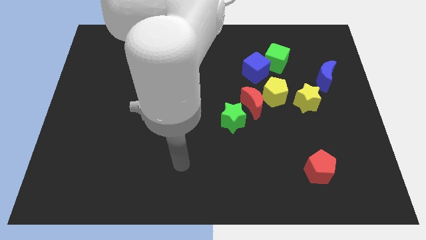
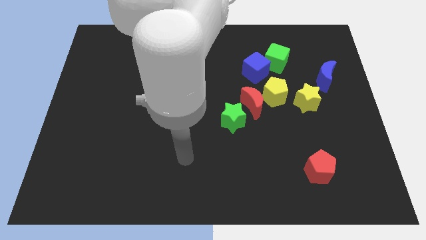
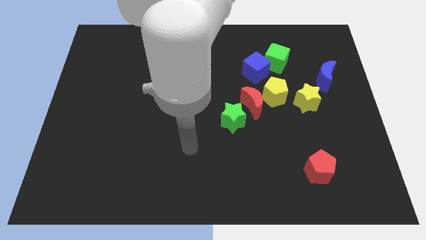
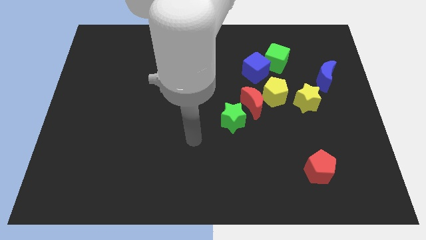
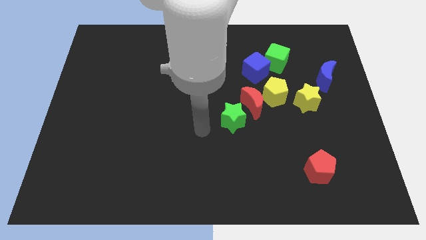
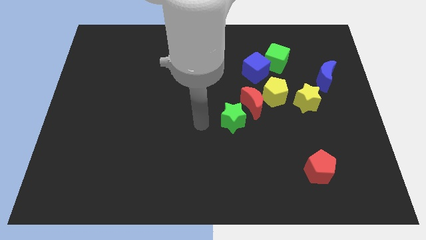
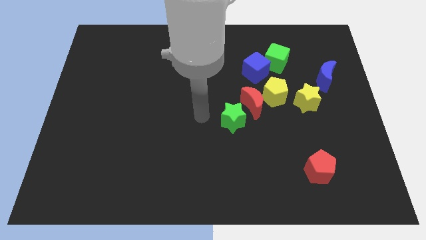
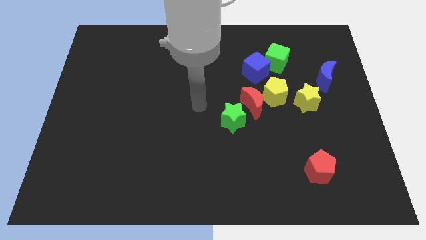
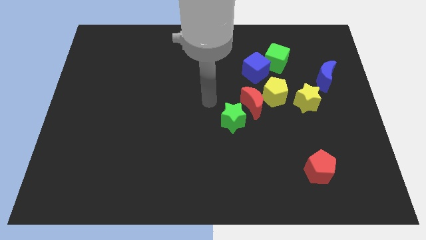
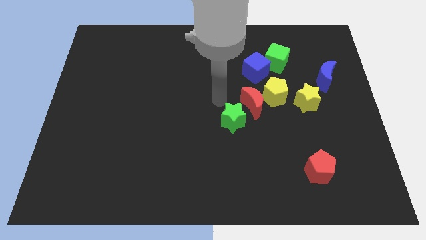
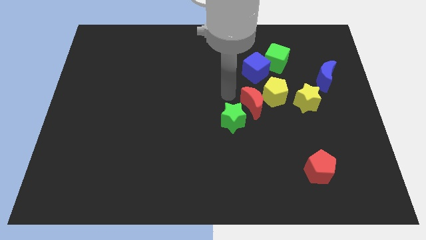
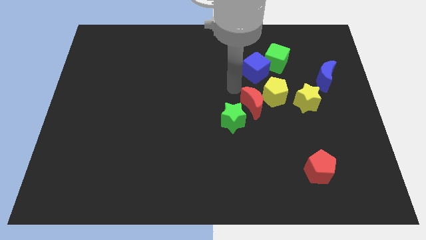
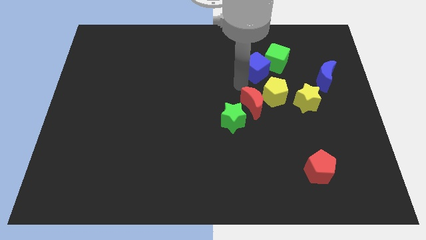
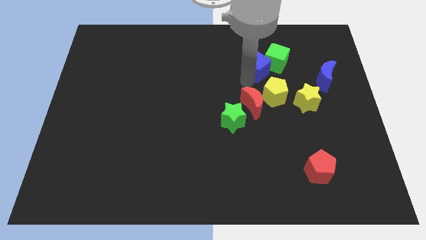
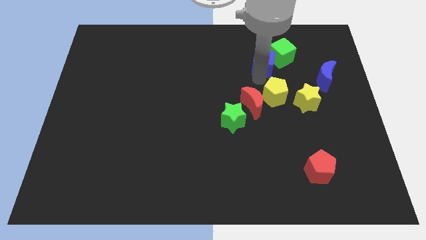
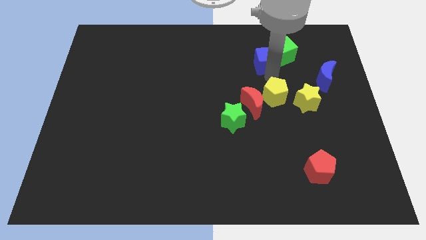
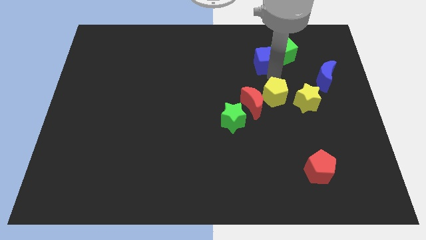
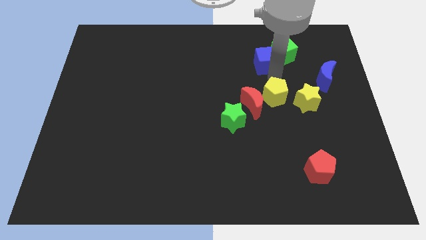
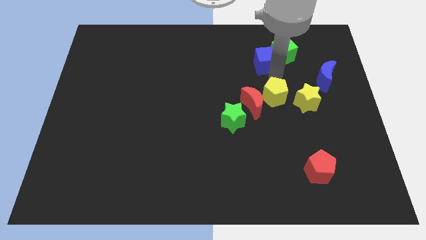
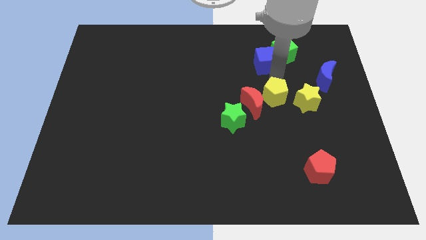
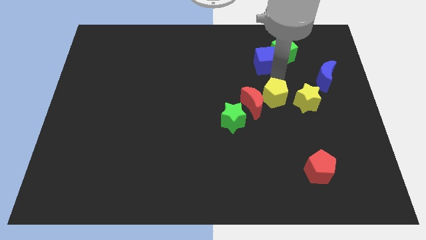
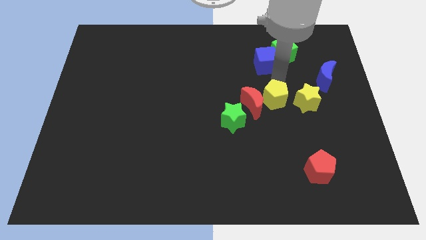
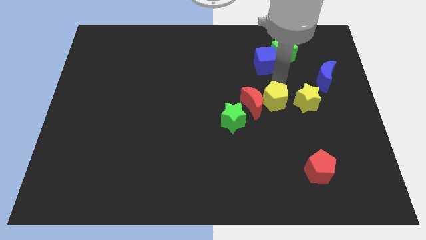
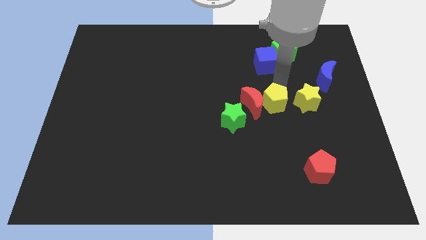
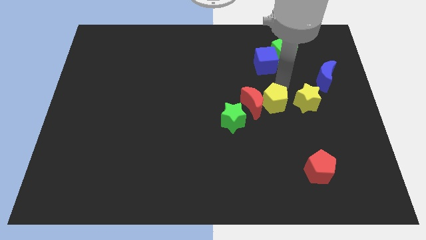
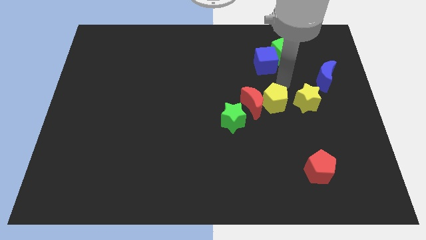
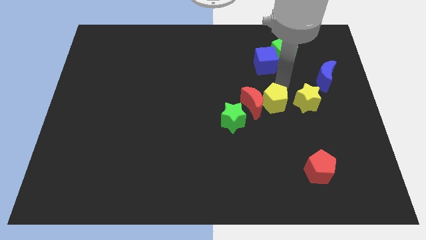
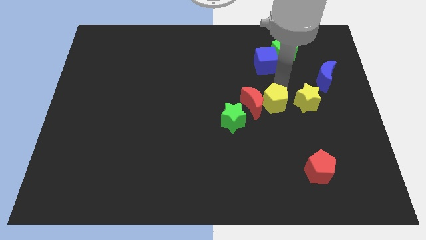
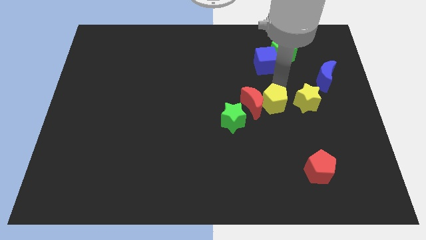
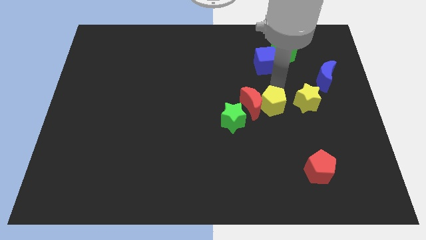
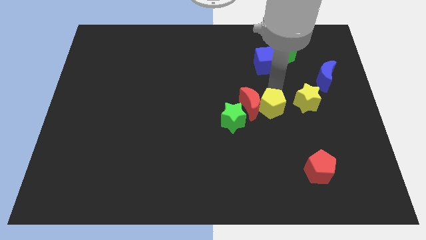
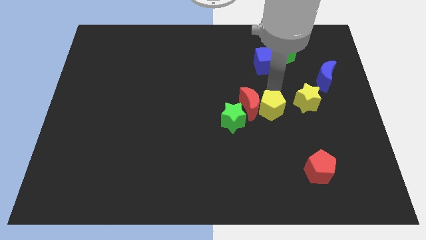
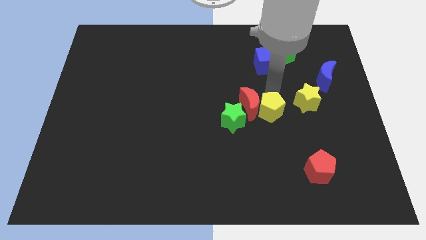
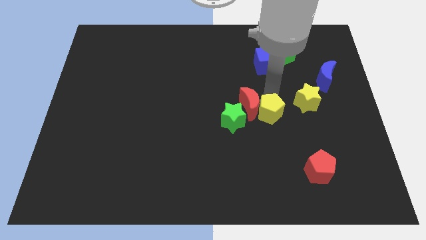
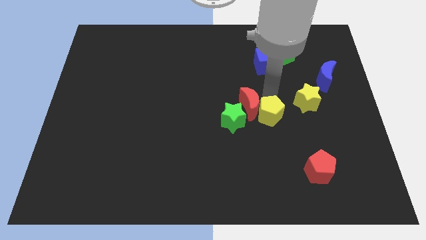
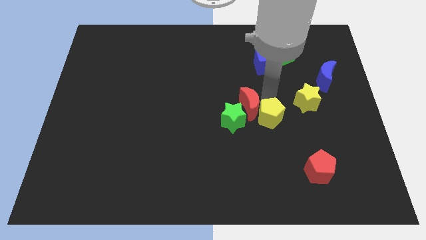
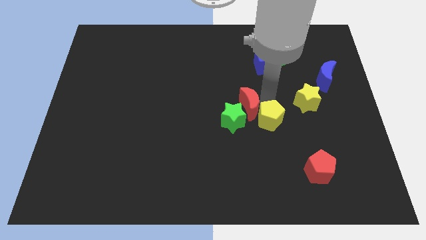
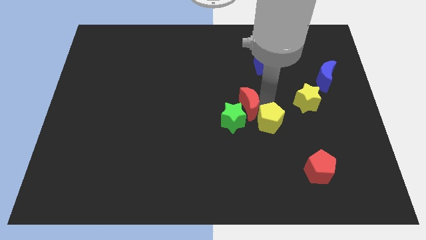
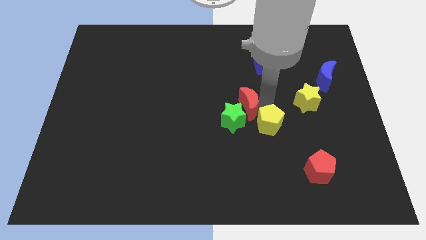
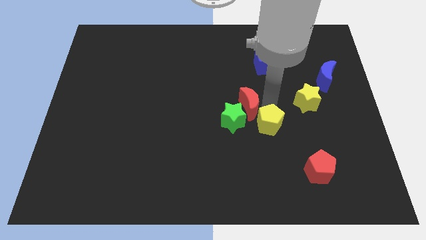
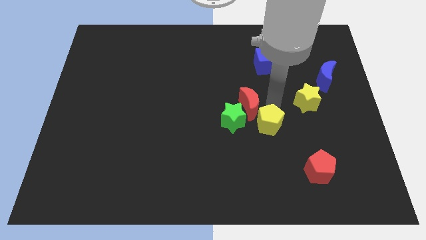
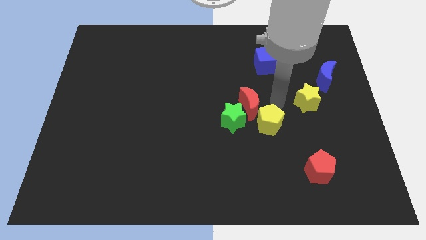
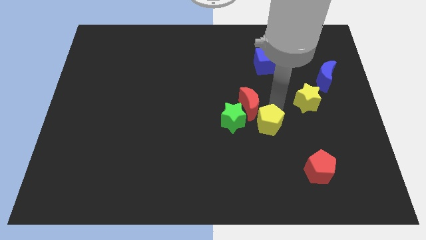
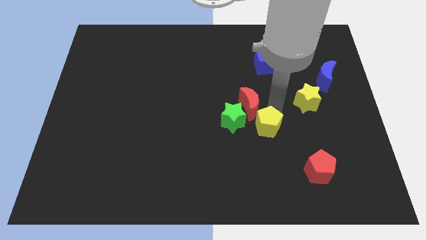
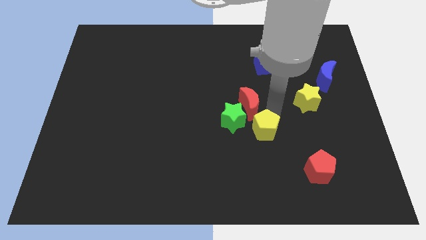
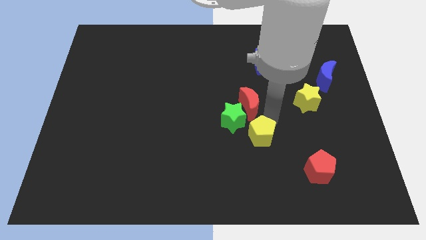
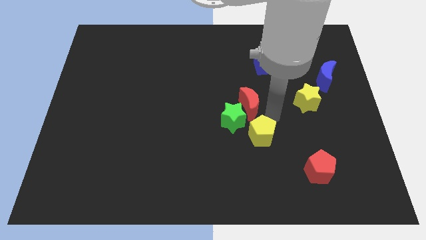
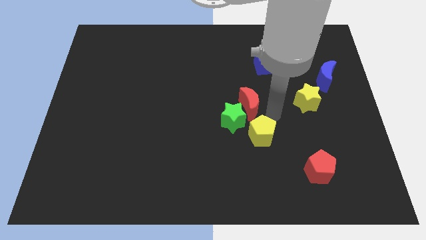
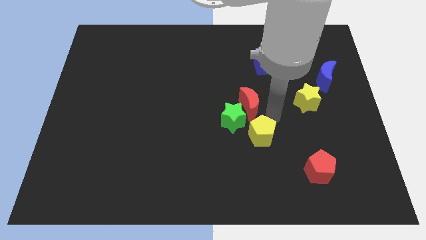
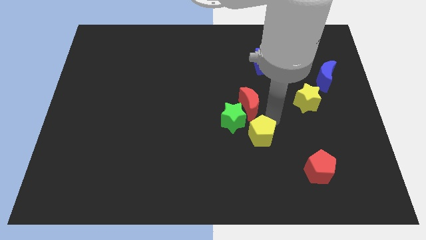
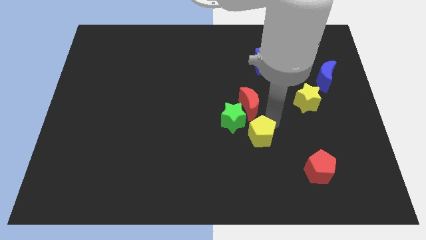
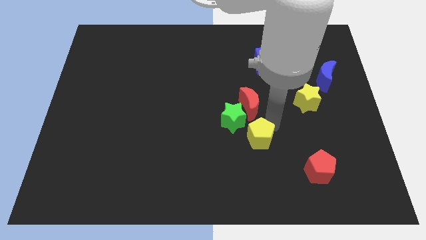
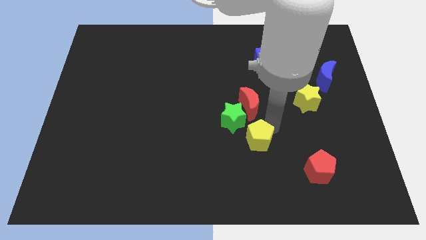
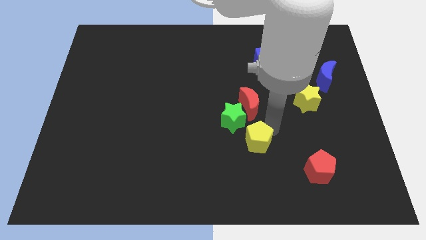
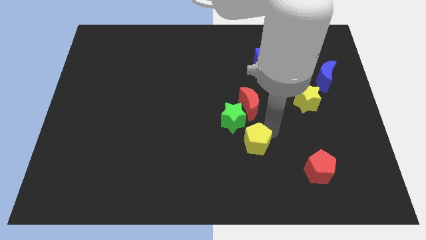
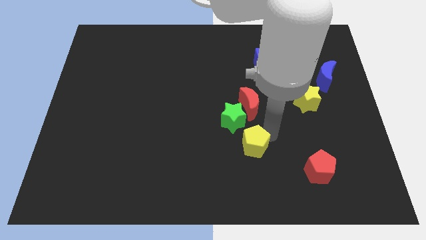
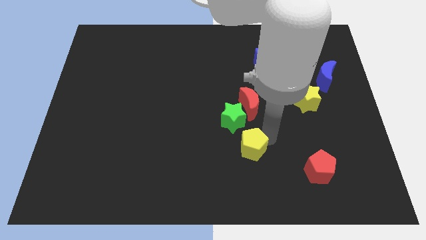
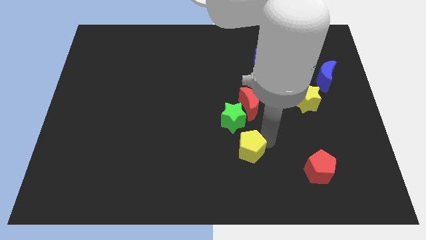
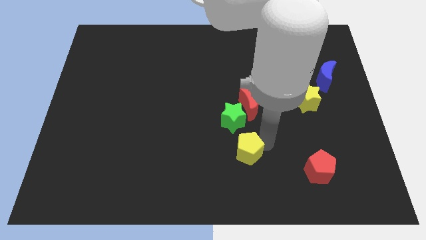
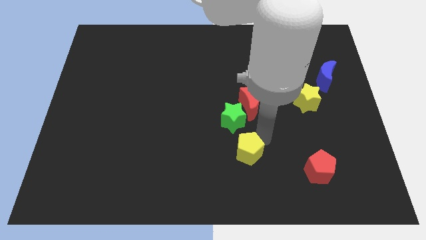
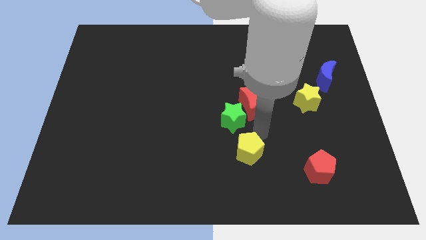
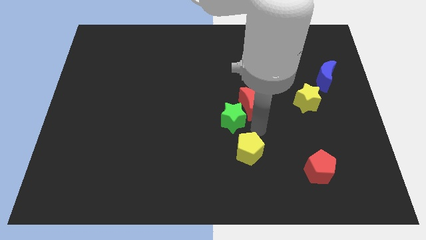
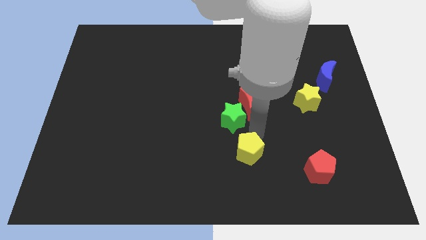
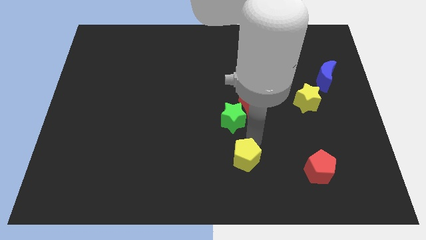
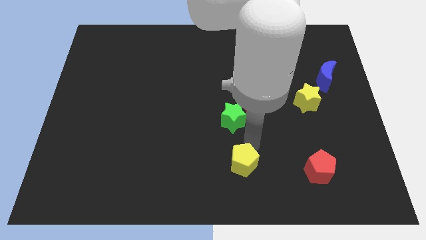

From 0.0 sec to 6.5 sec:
push the yellow pentagon to the bottom

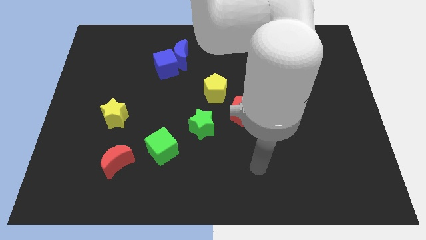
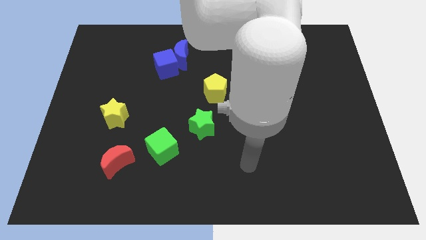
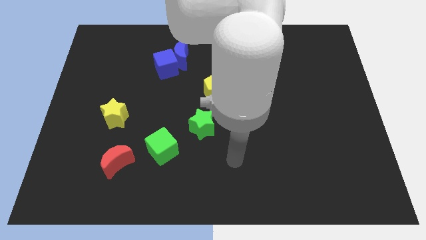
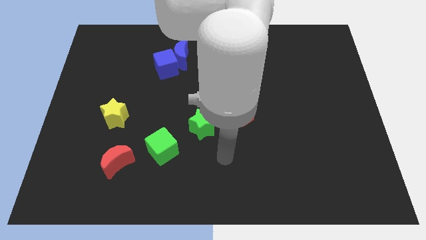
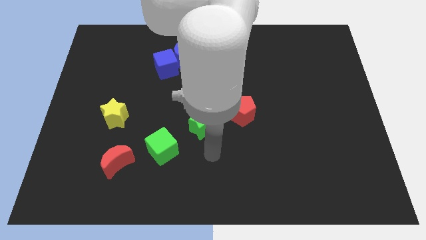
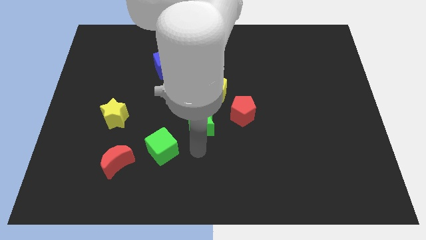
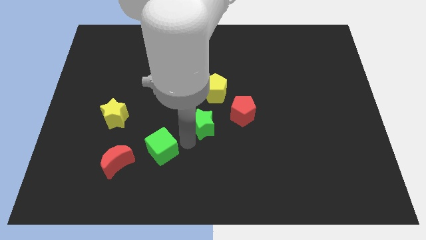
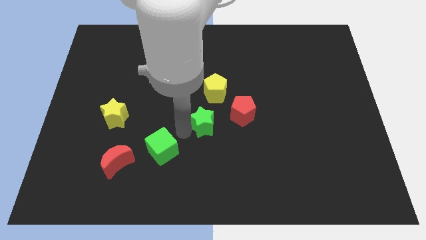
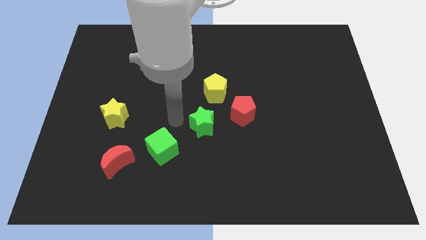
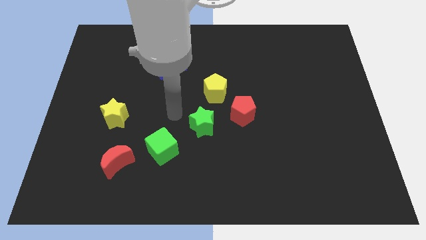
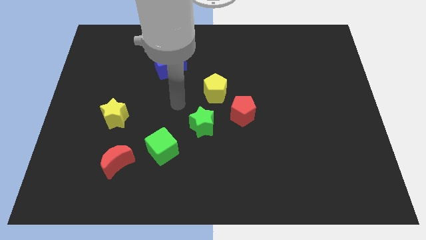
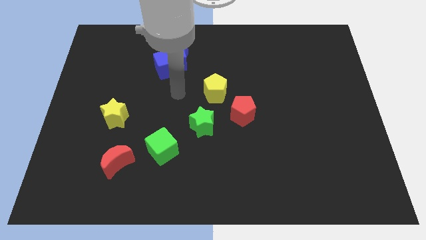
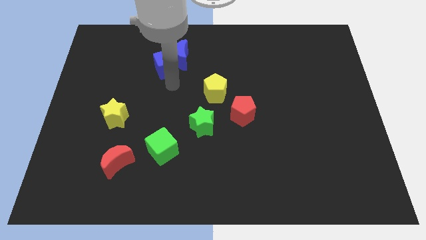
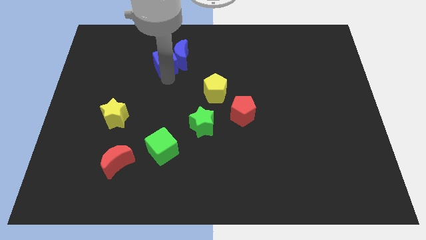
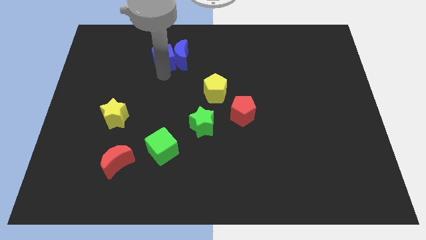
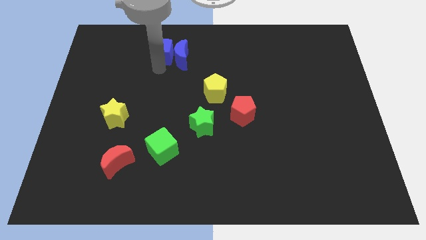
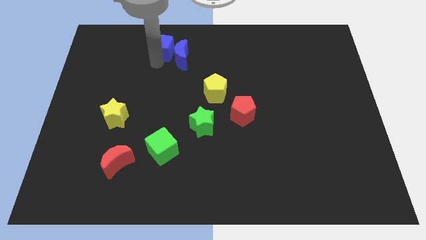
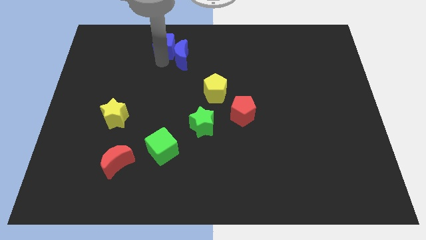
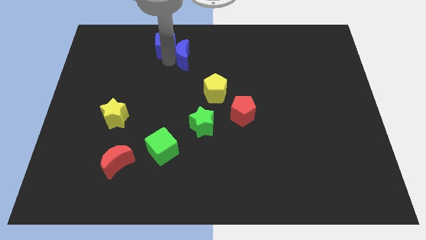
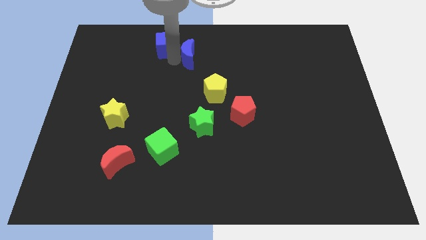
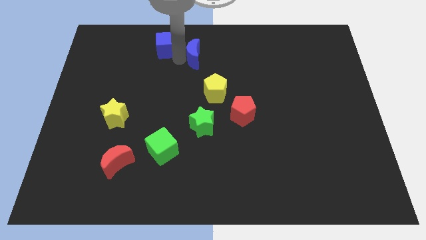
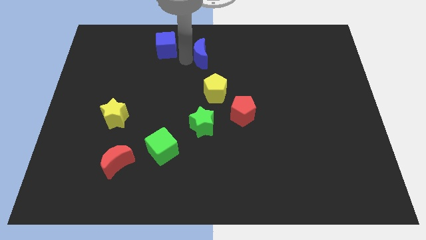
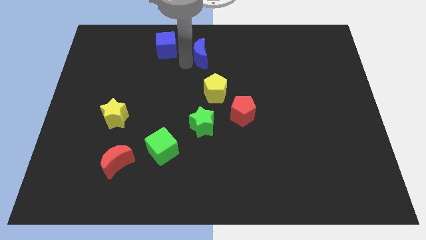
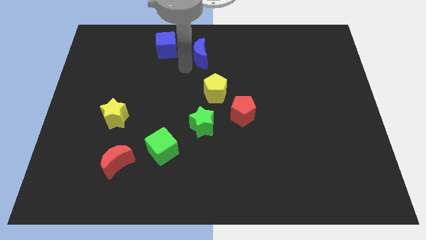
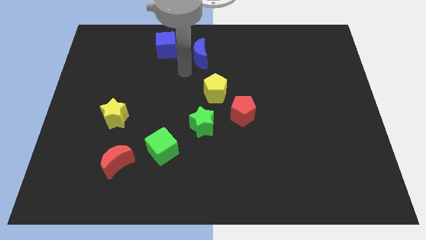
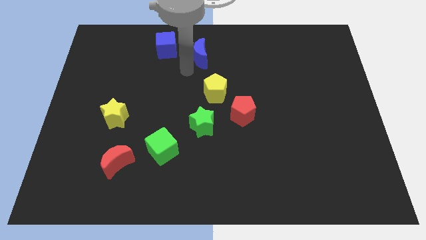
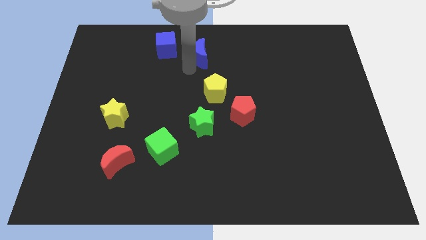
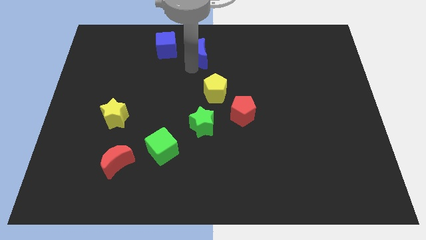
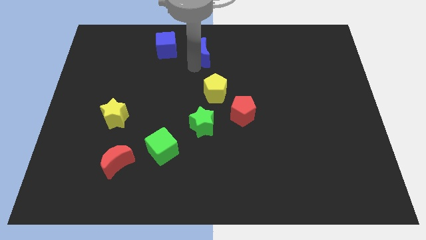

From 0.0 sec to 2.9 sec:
put the blue moon to the towards your base
